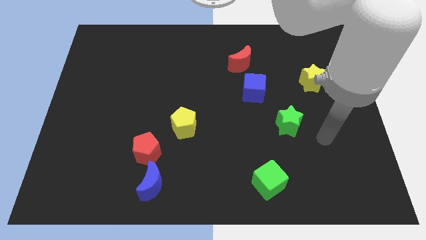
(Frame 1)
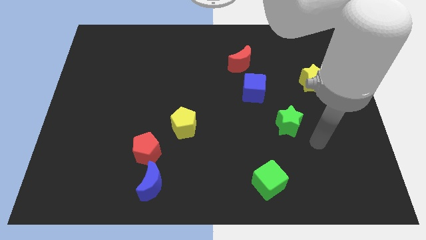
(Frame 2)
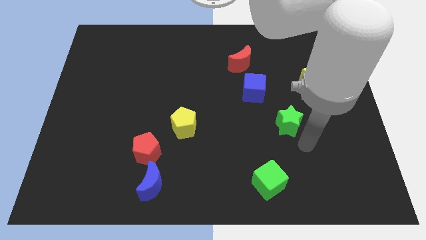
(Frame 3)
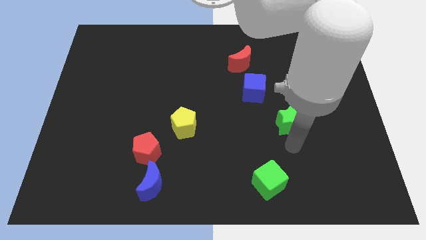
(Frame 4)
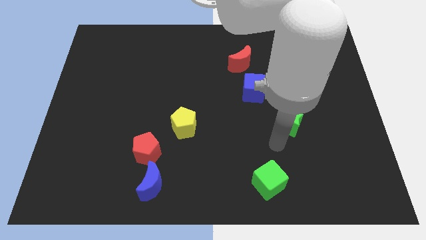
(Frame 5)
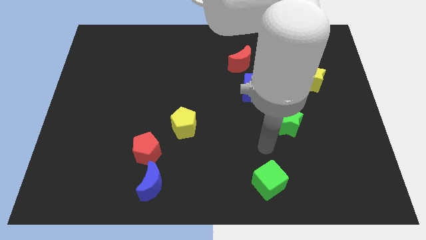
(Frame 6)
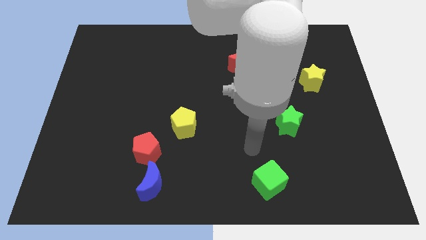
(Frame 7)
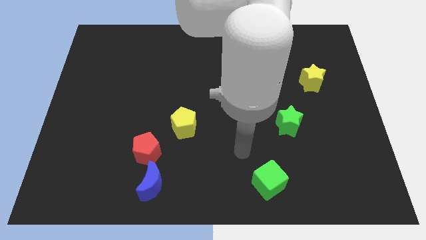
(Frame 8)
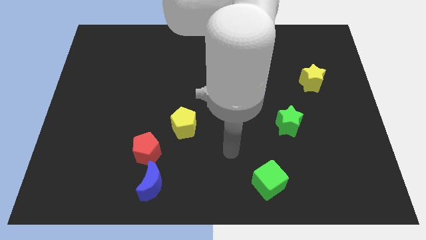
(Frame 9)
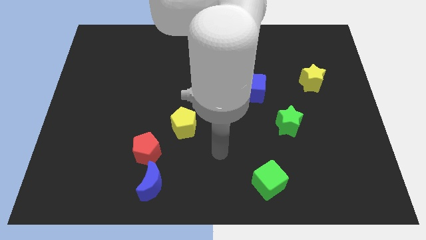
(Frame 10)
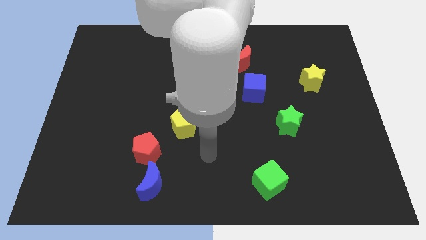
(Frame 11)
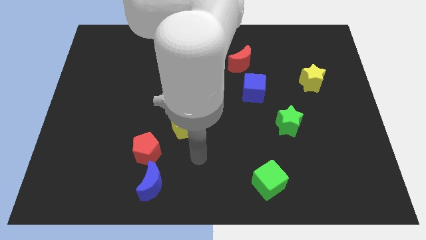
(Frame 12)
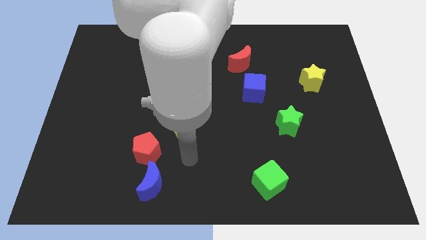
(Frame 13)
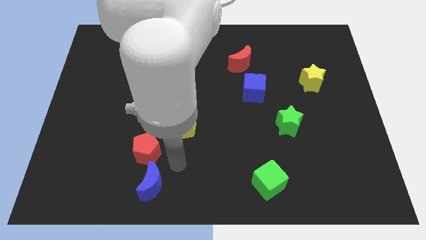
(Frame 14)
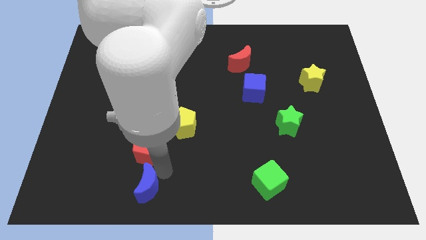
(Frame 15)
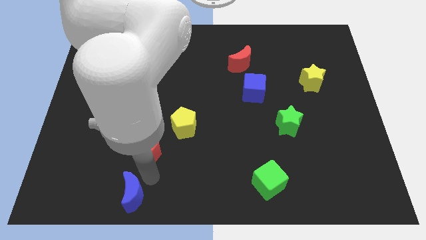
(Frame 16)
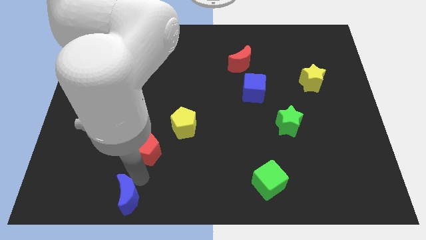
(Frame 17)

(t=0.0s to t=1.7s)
move the red pentagon away from the blue moon

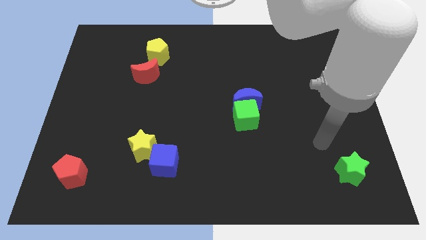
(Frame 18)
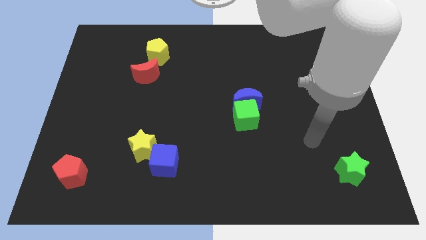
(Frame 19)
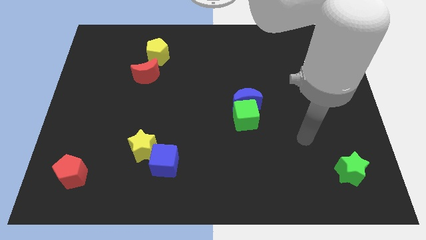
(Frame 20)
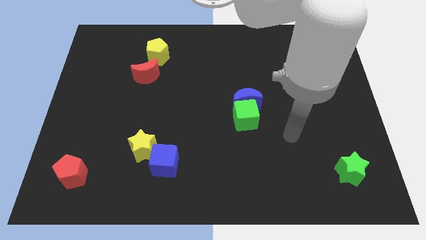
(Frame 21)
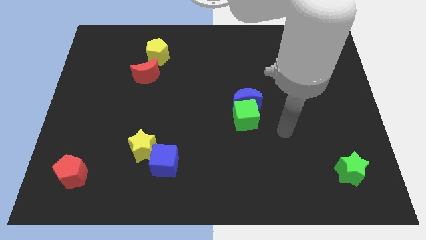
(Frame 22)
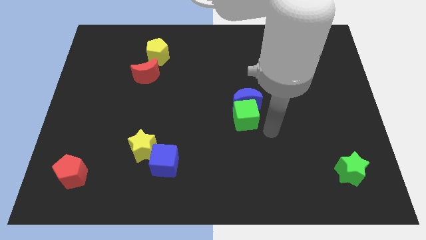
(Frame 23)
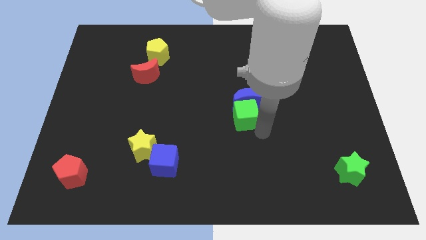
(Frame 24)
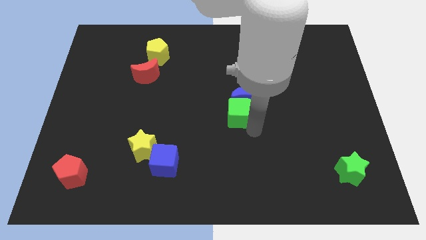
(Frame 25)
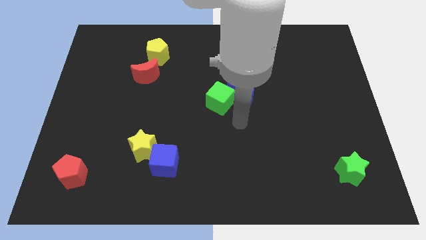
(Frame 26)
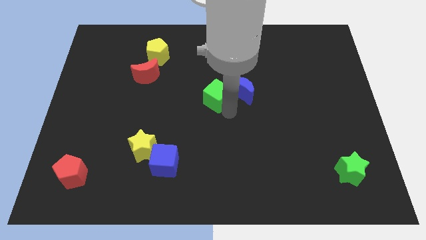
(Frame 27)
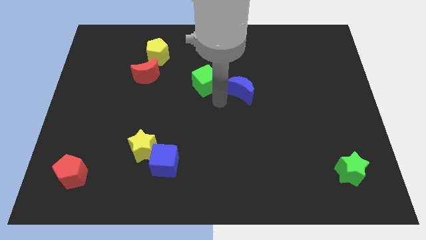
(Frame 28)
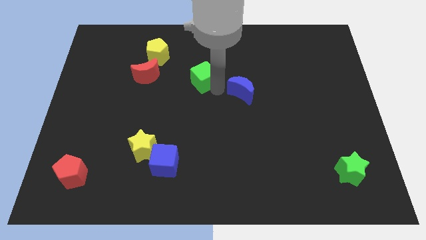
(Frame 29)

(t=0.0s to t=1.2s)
move the blue moon away from the green cube

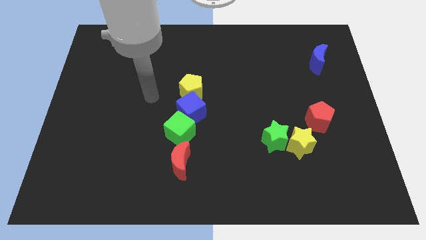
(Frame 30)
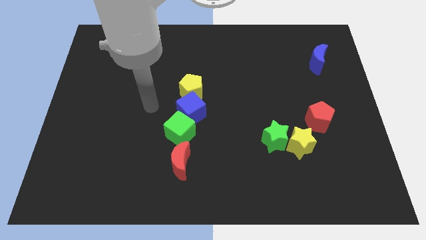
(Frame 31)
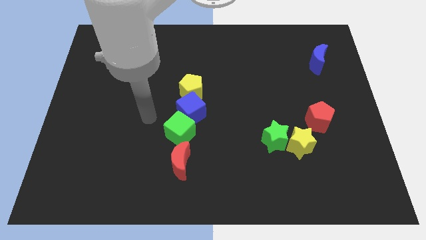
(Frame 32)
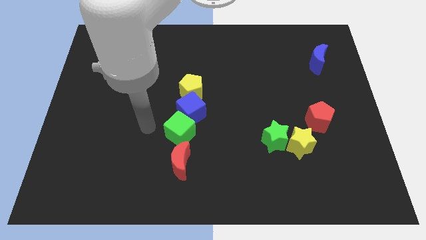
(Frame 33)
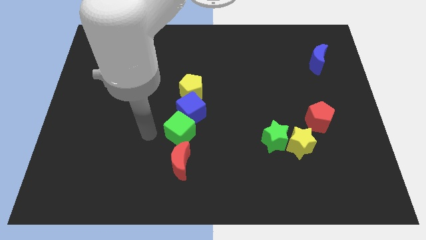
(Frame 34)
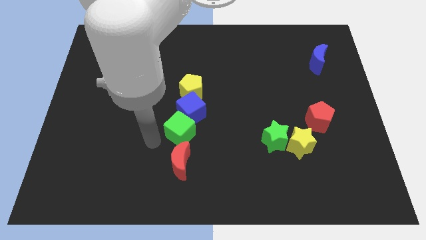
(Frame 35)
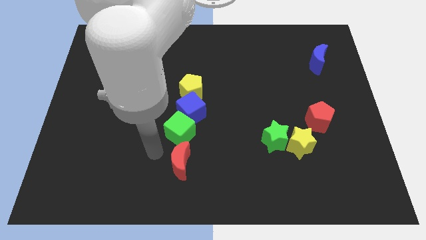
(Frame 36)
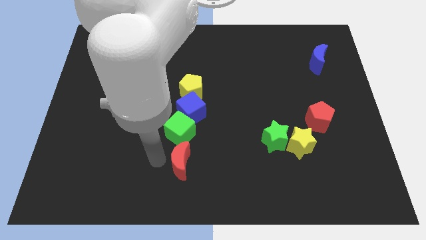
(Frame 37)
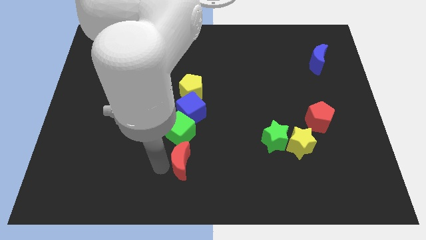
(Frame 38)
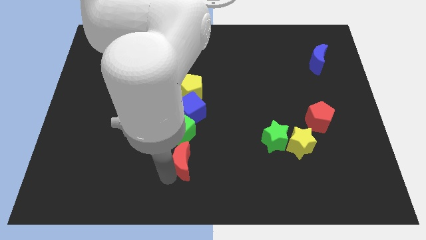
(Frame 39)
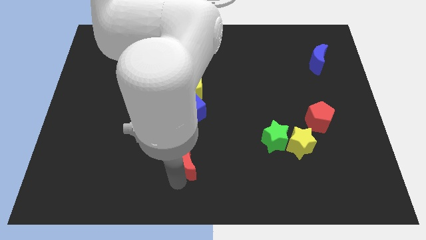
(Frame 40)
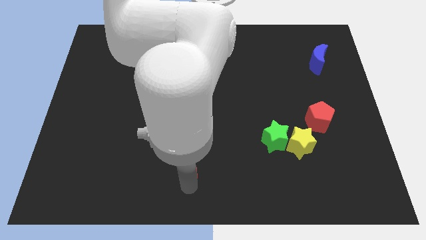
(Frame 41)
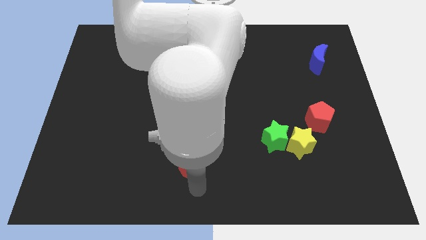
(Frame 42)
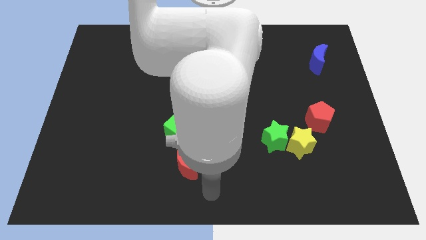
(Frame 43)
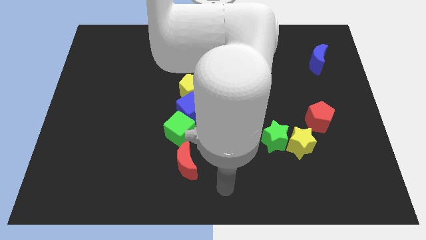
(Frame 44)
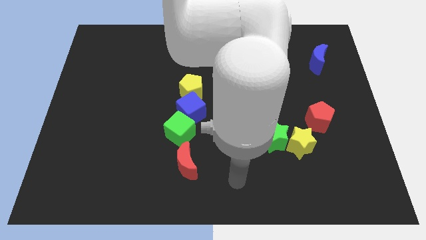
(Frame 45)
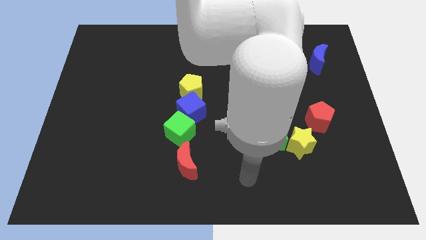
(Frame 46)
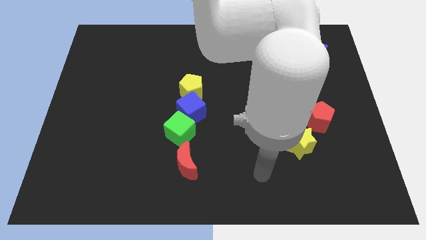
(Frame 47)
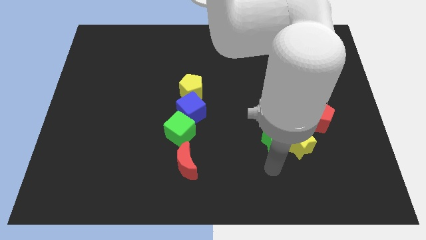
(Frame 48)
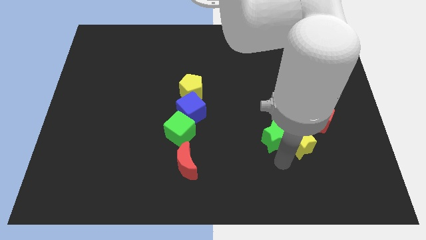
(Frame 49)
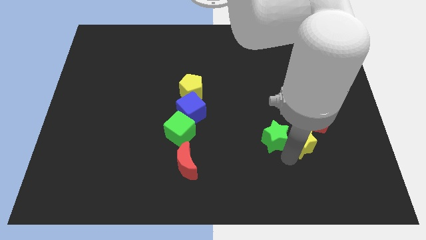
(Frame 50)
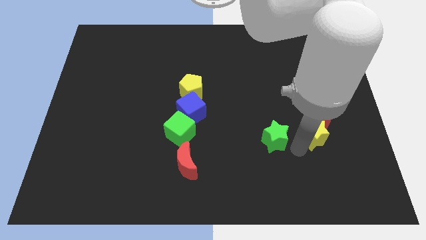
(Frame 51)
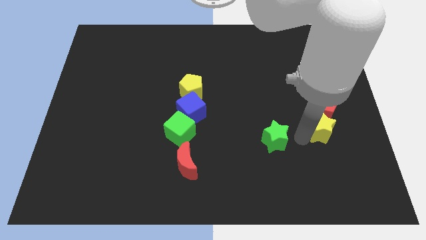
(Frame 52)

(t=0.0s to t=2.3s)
separate the green star from the yellow star

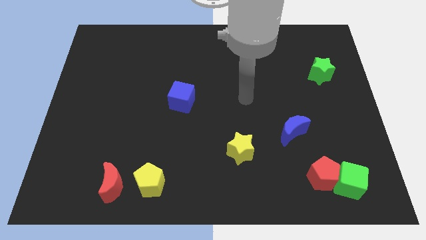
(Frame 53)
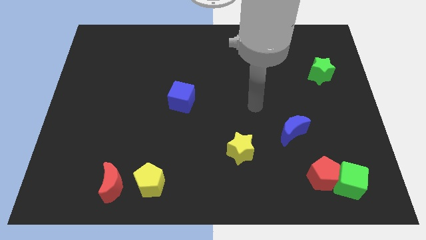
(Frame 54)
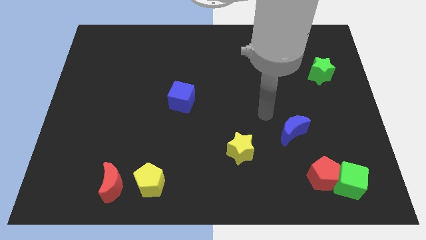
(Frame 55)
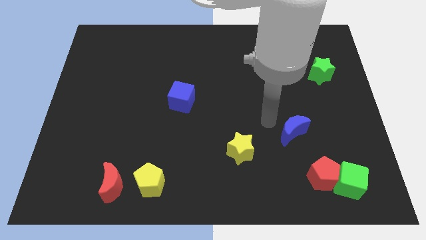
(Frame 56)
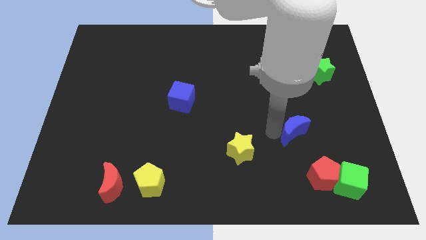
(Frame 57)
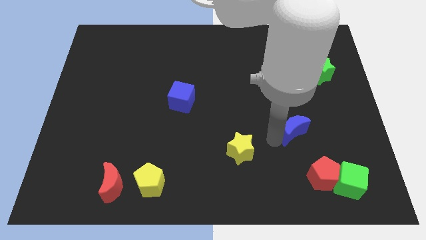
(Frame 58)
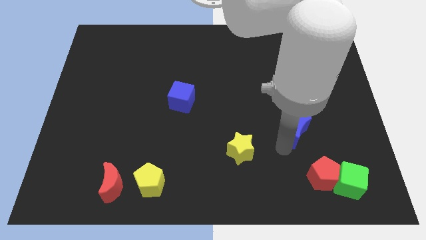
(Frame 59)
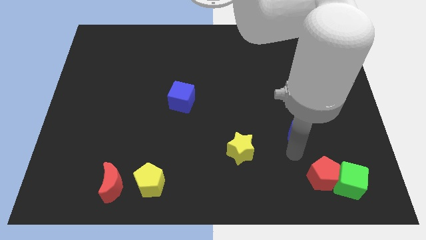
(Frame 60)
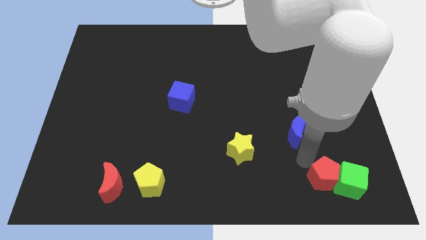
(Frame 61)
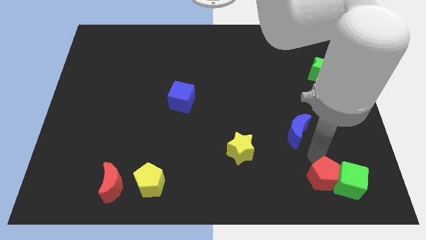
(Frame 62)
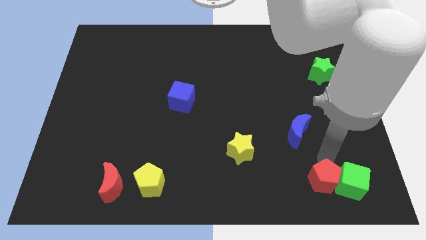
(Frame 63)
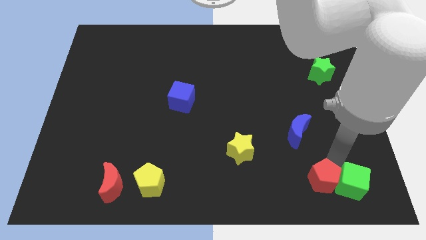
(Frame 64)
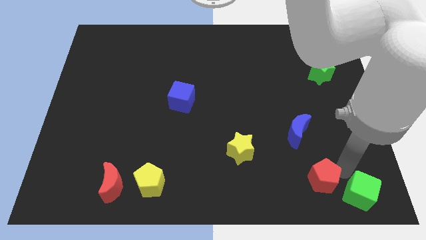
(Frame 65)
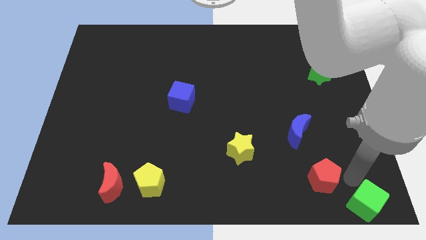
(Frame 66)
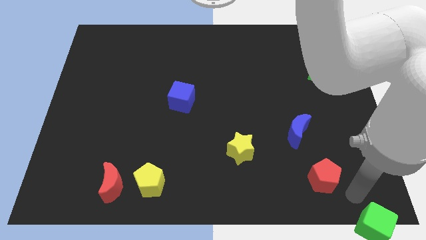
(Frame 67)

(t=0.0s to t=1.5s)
pull the red pentagon apart from the green cube

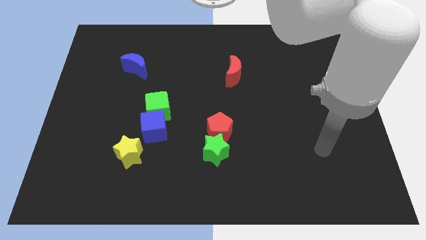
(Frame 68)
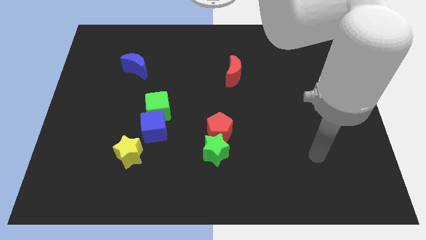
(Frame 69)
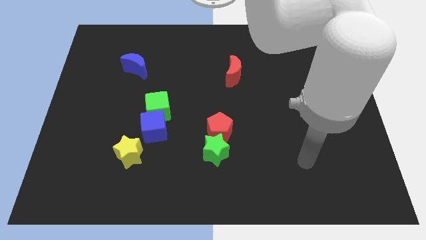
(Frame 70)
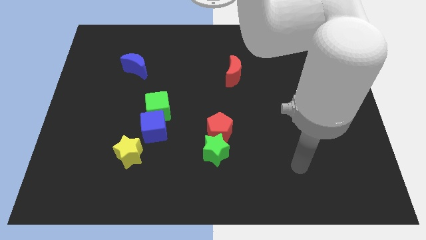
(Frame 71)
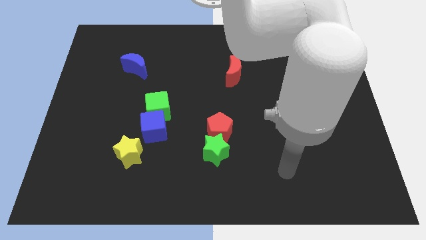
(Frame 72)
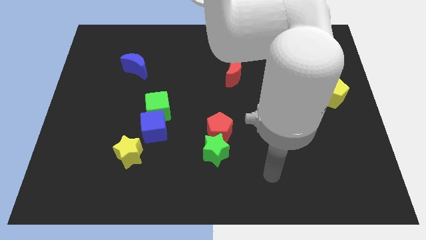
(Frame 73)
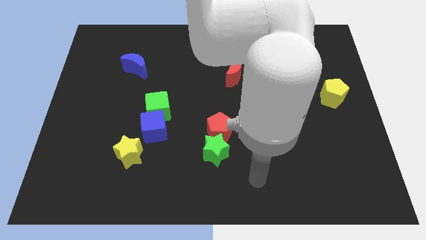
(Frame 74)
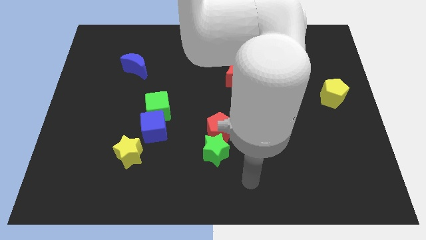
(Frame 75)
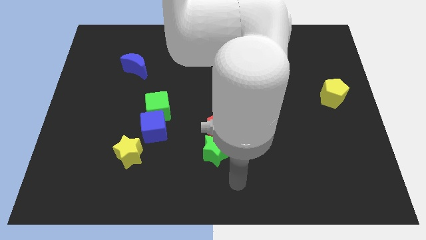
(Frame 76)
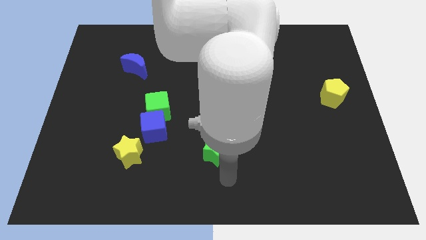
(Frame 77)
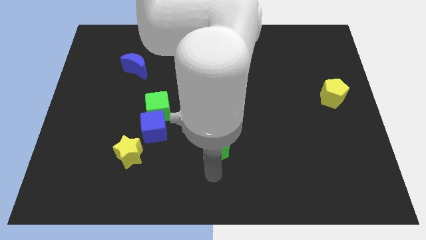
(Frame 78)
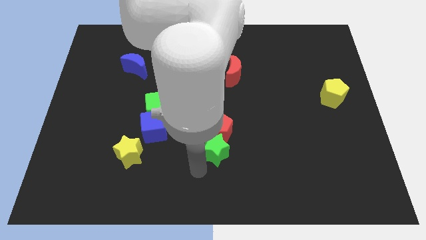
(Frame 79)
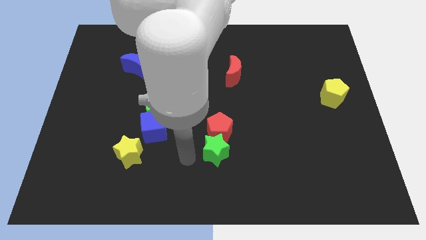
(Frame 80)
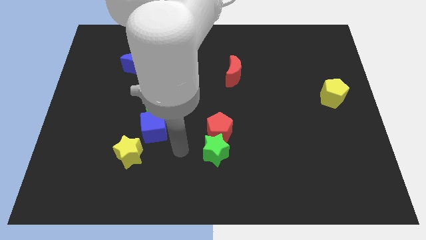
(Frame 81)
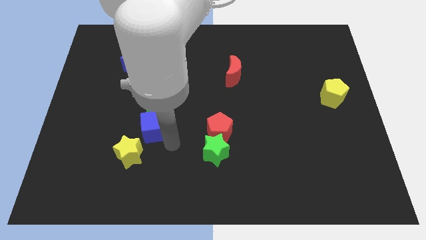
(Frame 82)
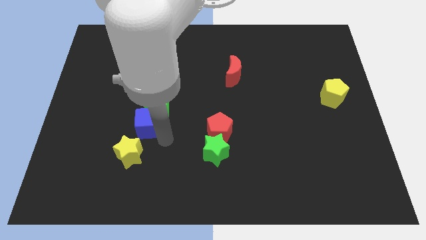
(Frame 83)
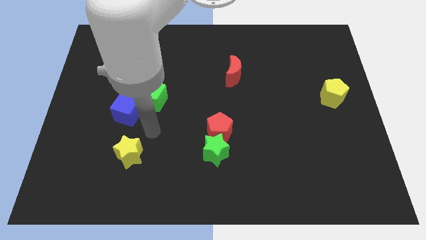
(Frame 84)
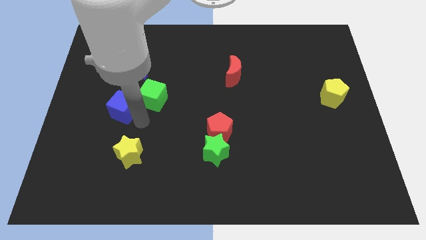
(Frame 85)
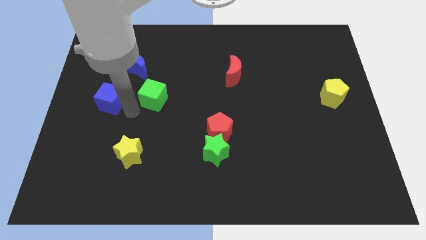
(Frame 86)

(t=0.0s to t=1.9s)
separate the green cube from the blue cube

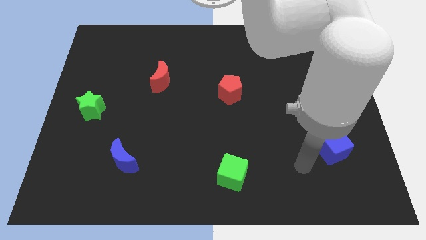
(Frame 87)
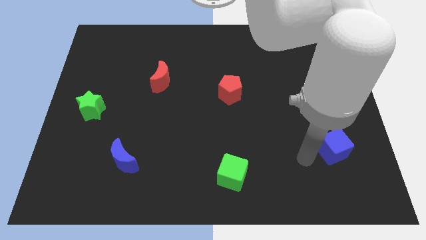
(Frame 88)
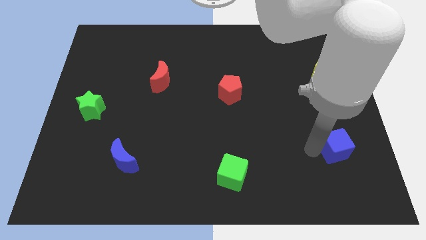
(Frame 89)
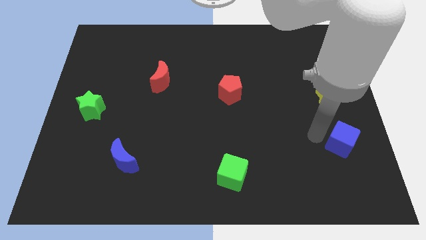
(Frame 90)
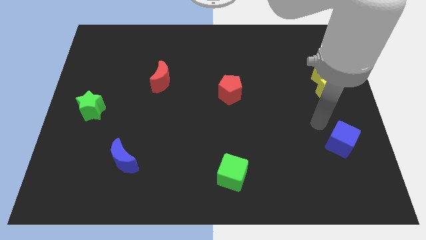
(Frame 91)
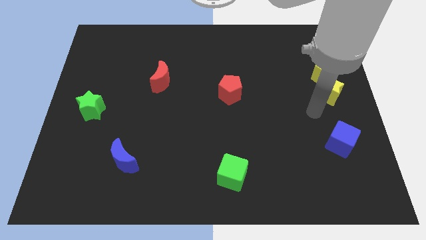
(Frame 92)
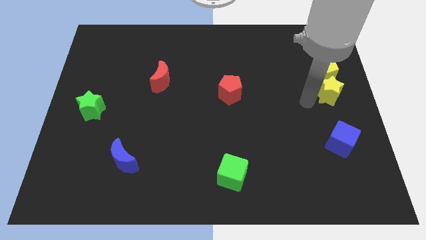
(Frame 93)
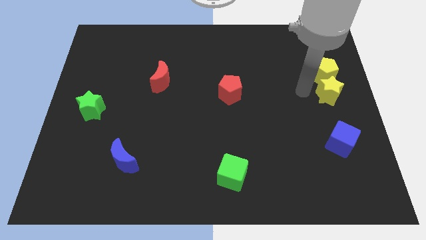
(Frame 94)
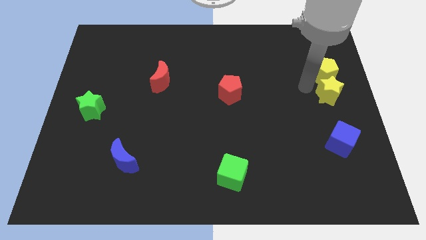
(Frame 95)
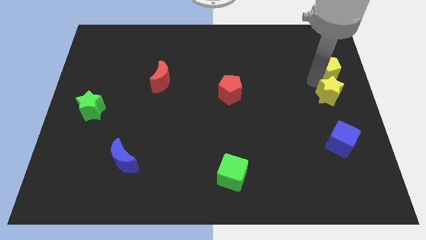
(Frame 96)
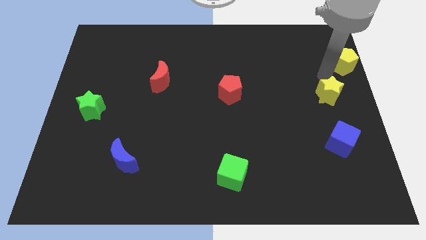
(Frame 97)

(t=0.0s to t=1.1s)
separate the yellow star from the yellow pentagon
